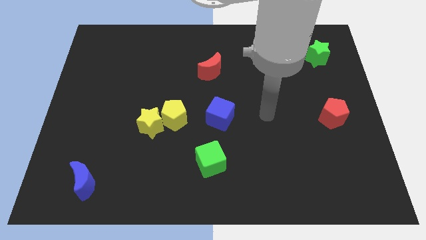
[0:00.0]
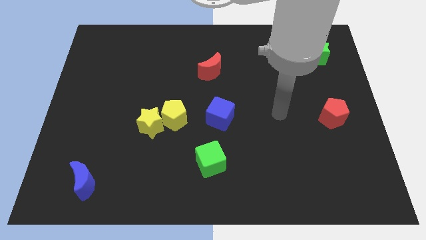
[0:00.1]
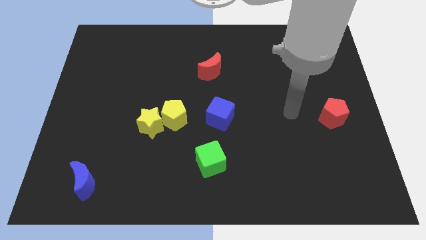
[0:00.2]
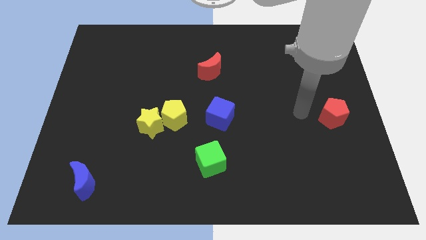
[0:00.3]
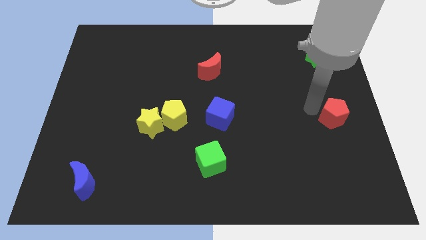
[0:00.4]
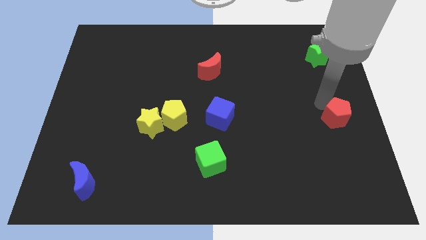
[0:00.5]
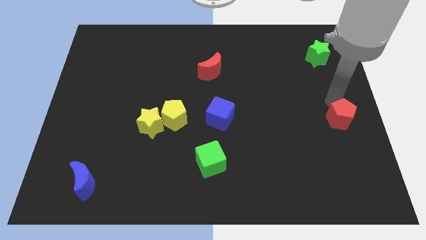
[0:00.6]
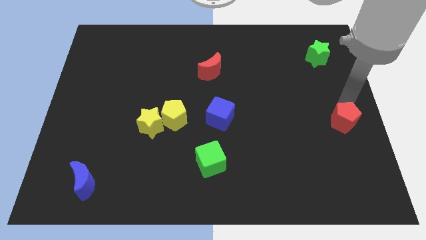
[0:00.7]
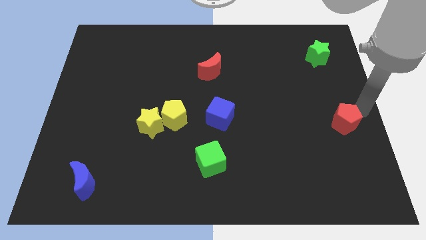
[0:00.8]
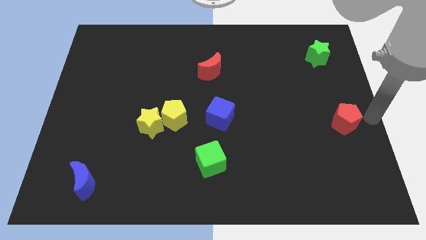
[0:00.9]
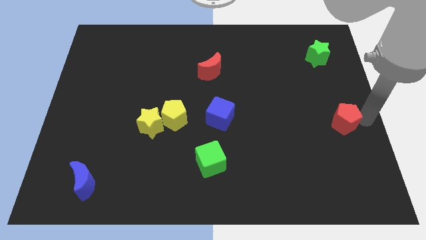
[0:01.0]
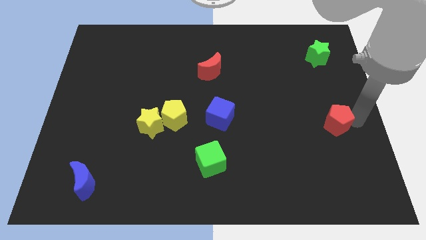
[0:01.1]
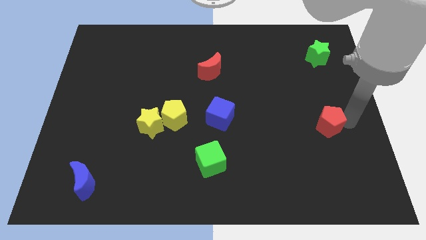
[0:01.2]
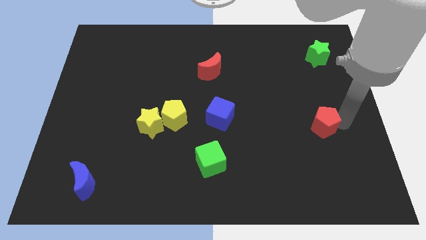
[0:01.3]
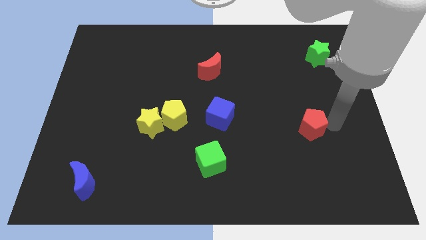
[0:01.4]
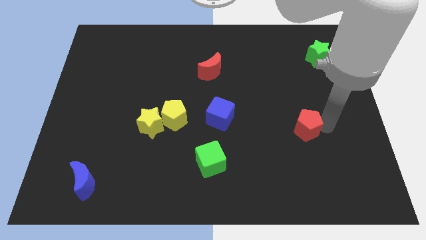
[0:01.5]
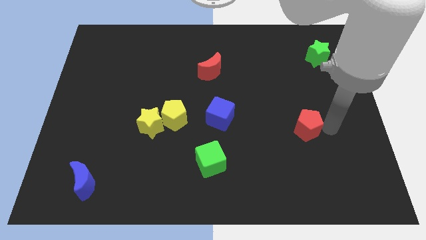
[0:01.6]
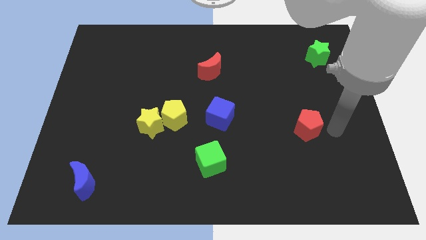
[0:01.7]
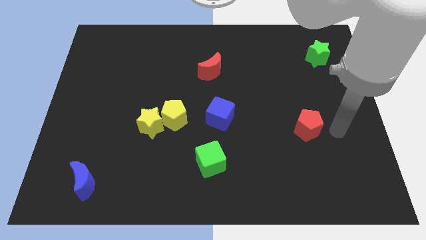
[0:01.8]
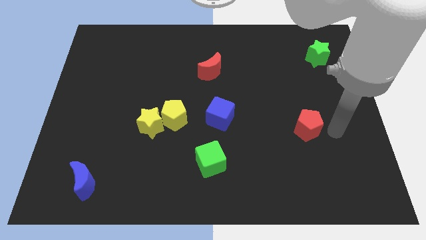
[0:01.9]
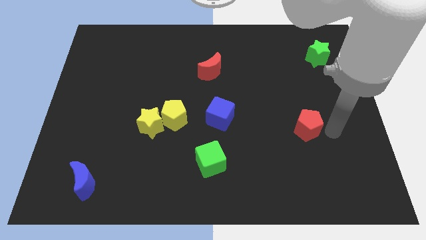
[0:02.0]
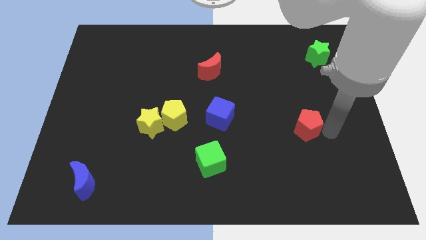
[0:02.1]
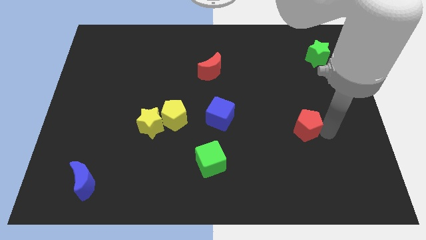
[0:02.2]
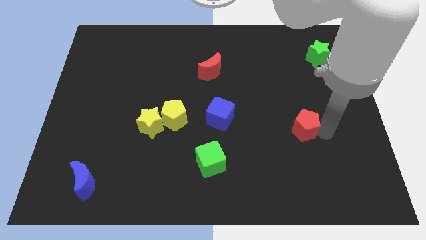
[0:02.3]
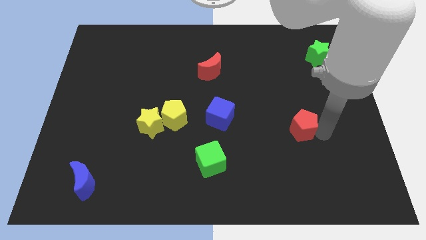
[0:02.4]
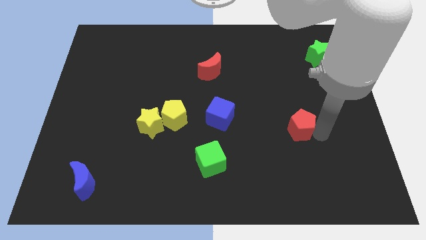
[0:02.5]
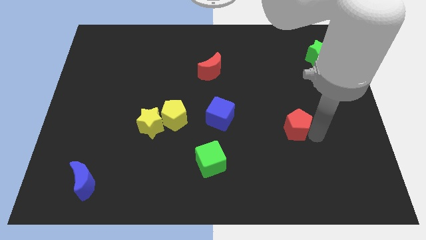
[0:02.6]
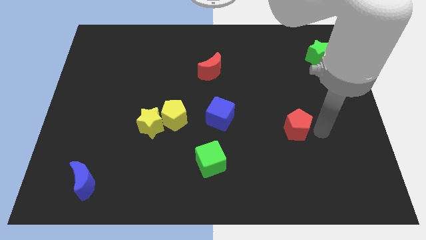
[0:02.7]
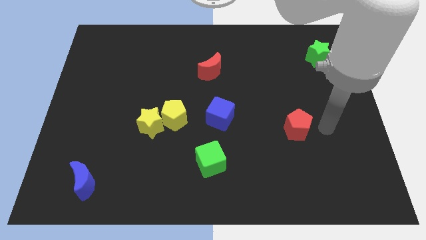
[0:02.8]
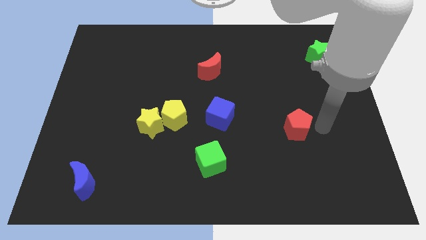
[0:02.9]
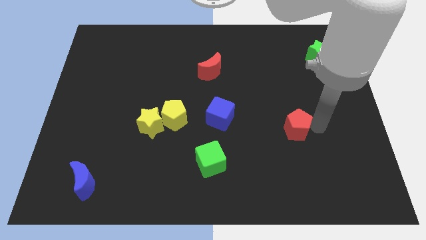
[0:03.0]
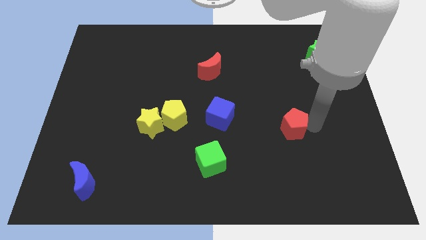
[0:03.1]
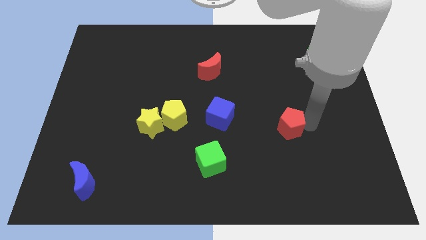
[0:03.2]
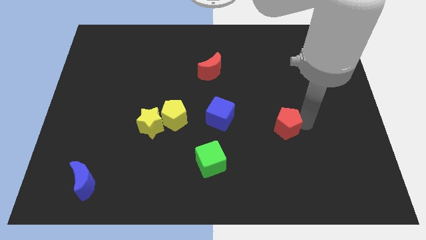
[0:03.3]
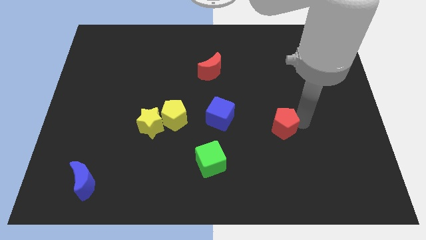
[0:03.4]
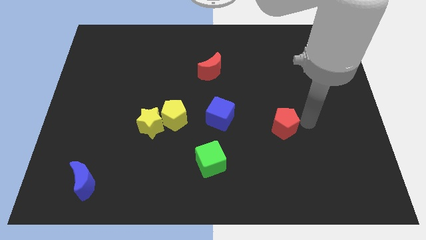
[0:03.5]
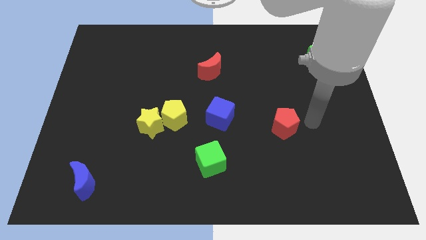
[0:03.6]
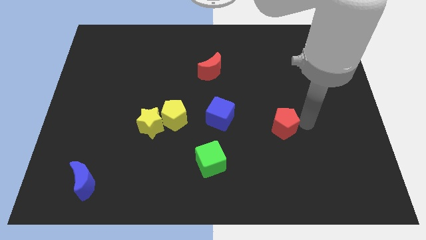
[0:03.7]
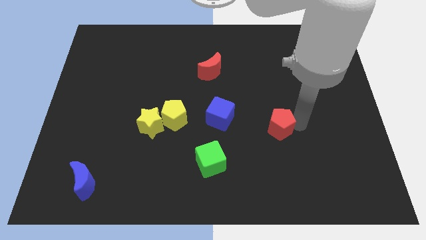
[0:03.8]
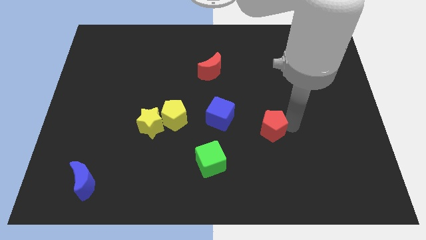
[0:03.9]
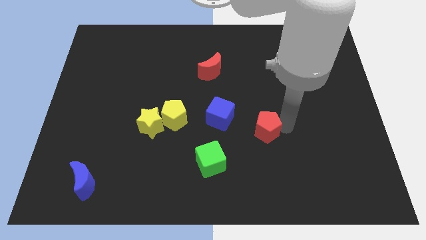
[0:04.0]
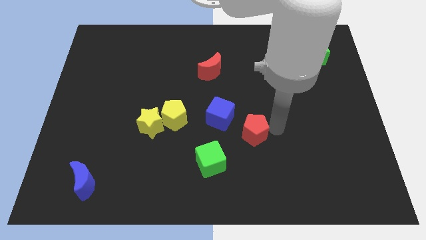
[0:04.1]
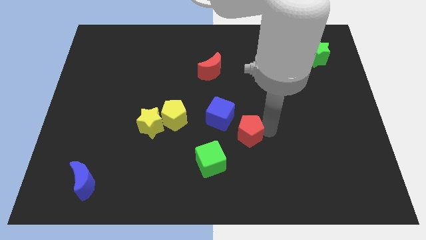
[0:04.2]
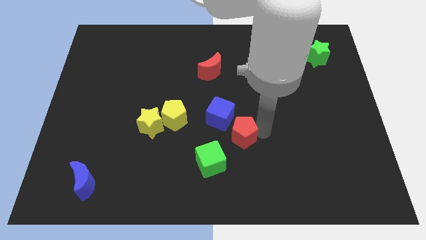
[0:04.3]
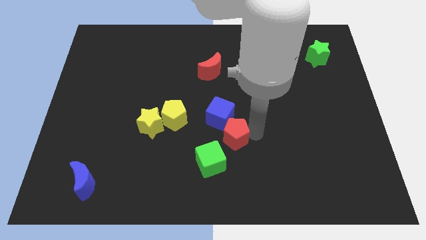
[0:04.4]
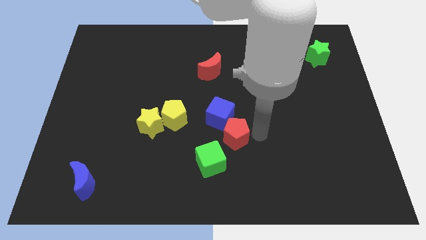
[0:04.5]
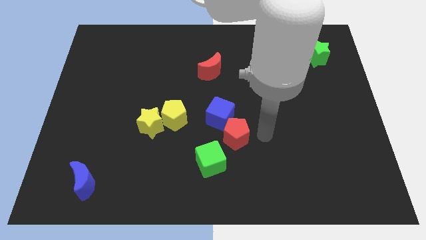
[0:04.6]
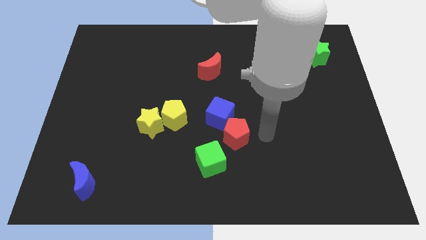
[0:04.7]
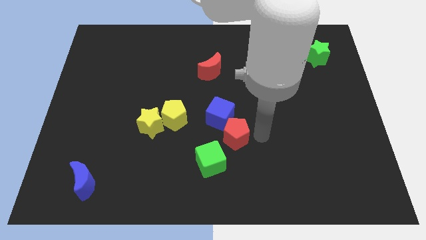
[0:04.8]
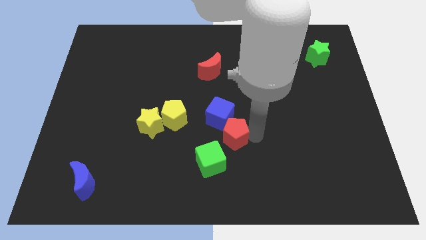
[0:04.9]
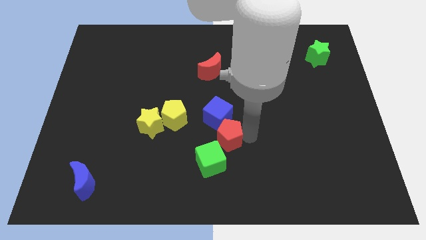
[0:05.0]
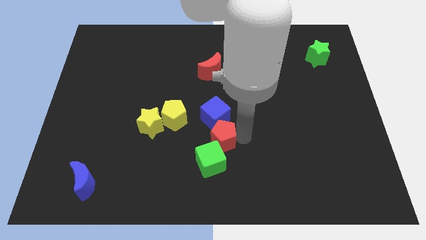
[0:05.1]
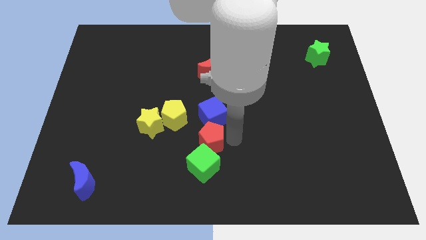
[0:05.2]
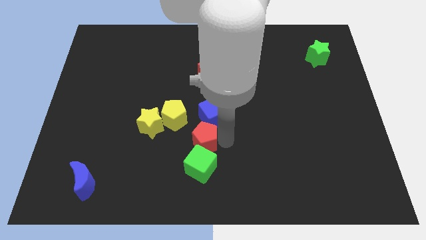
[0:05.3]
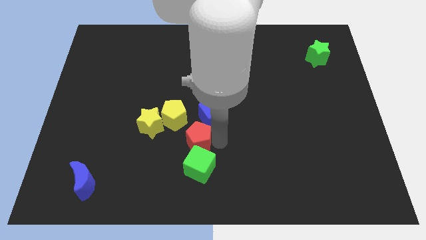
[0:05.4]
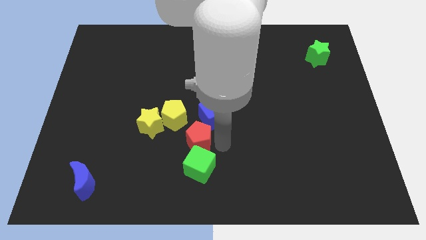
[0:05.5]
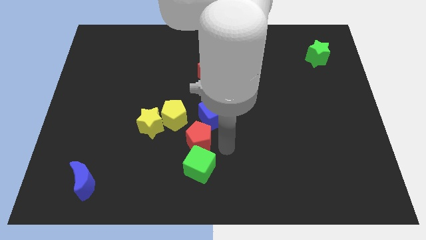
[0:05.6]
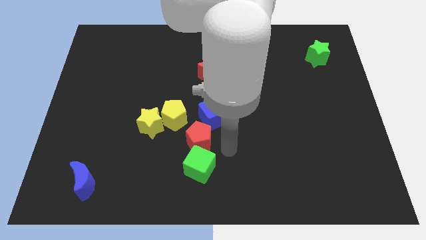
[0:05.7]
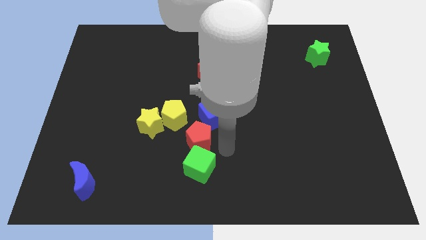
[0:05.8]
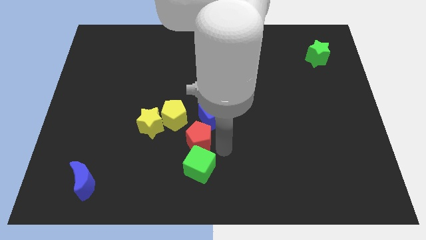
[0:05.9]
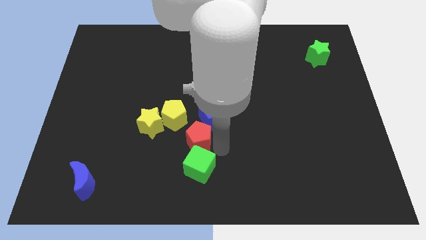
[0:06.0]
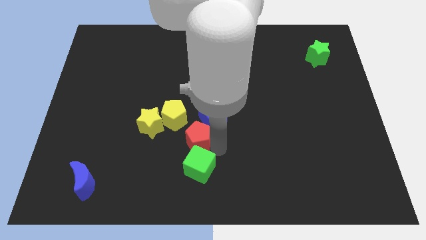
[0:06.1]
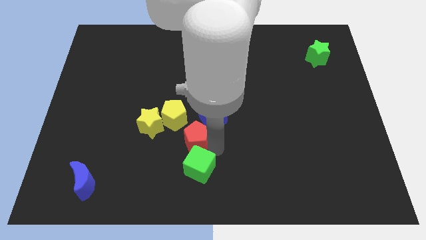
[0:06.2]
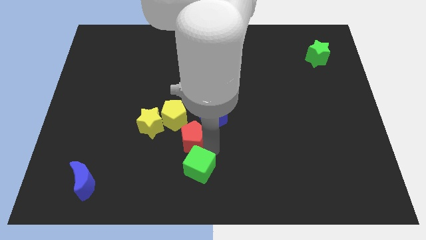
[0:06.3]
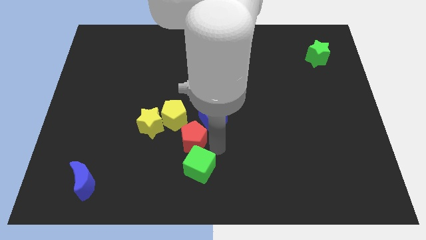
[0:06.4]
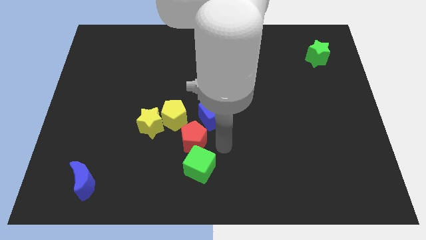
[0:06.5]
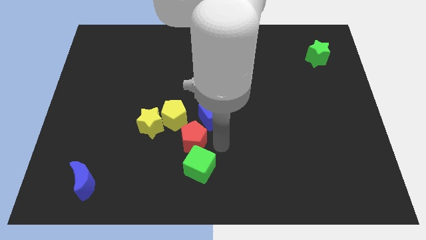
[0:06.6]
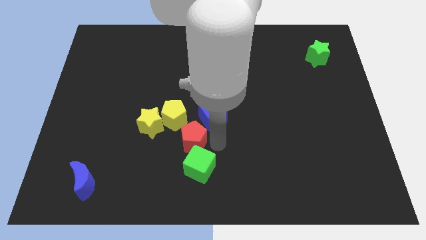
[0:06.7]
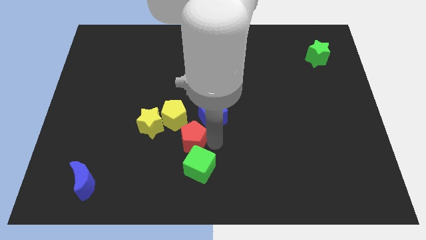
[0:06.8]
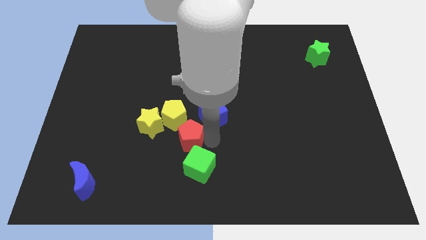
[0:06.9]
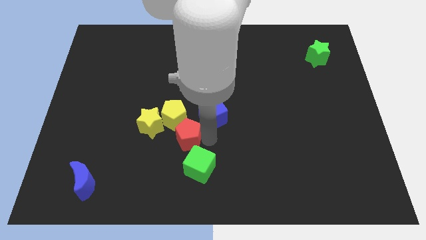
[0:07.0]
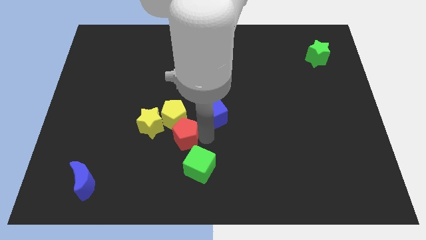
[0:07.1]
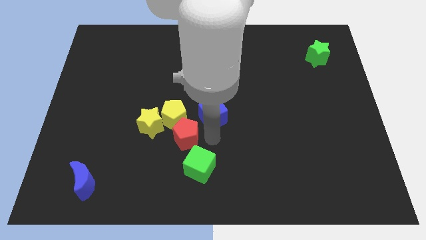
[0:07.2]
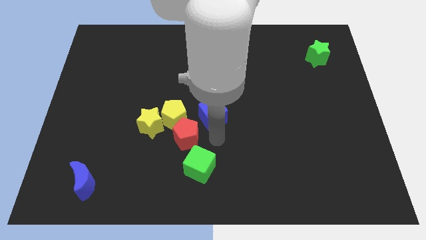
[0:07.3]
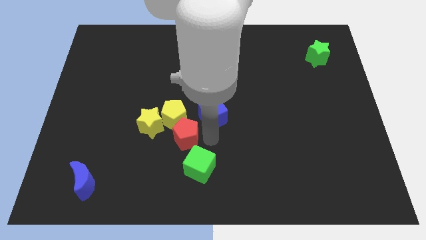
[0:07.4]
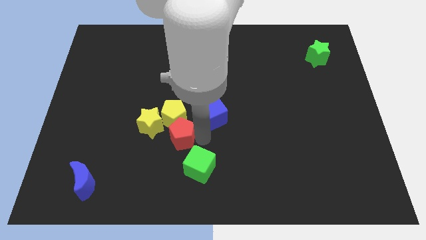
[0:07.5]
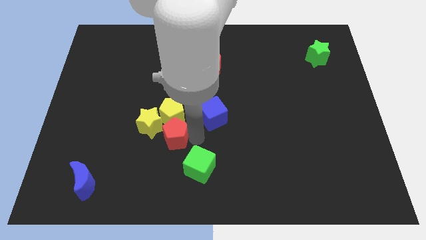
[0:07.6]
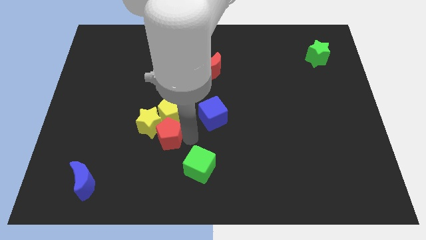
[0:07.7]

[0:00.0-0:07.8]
move the red pentagon close to the yellow star
